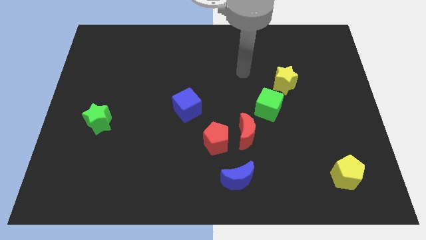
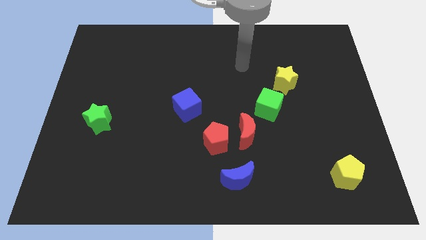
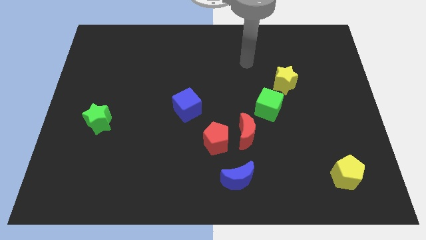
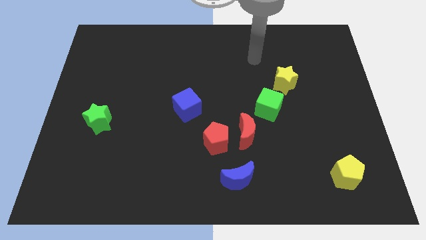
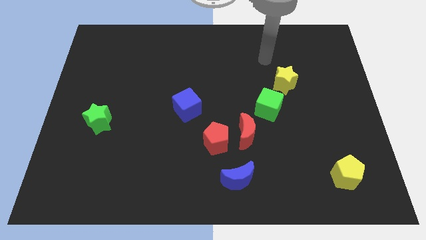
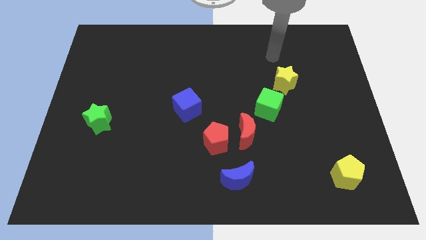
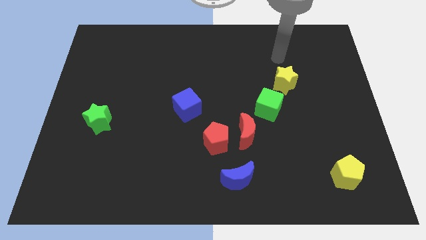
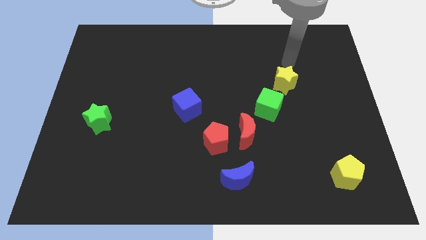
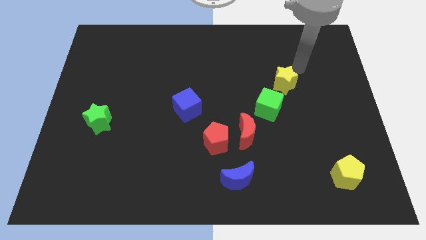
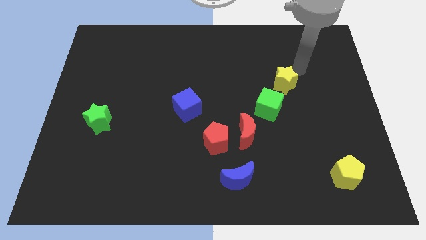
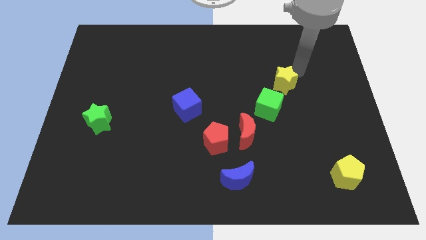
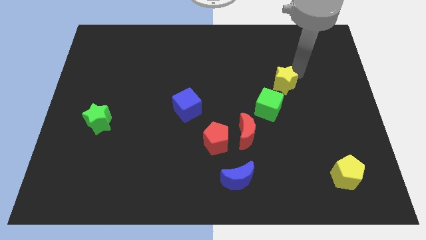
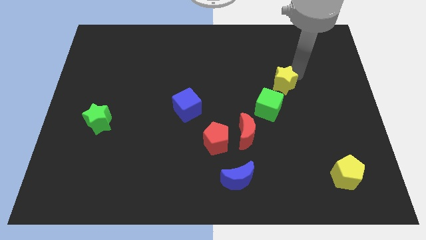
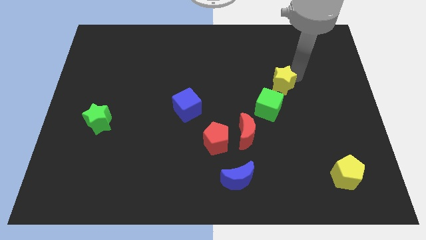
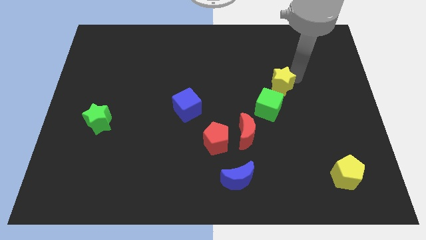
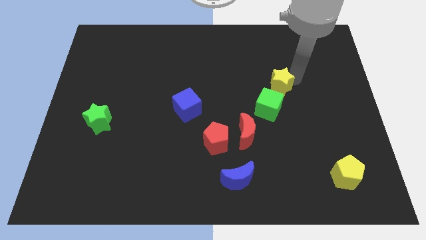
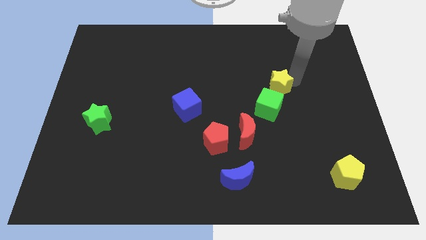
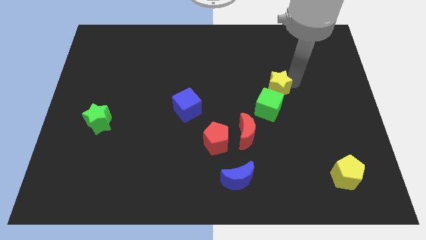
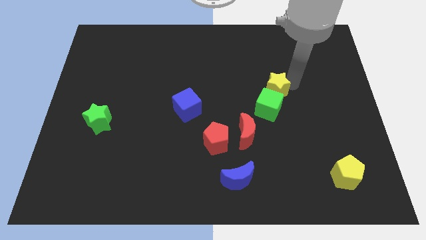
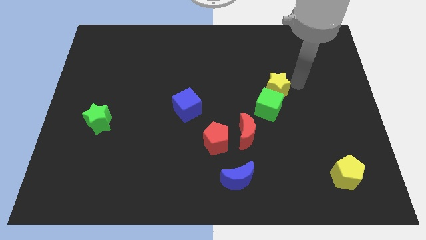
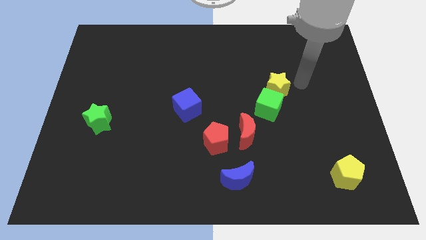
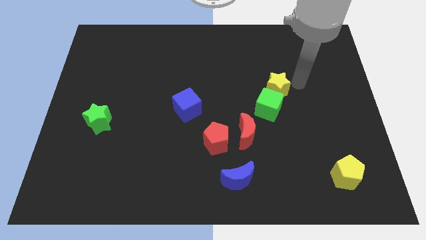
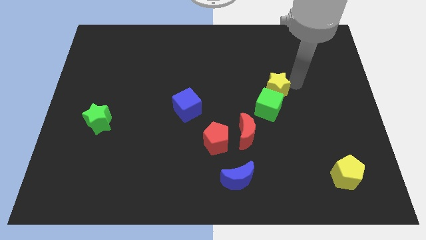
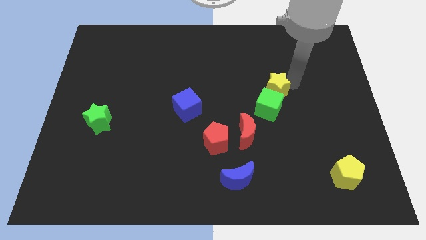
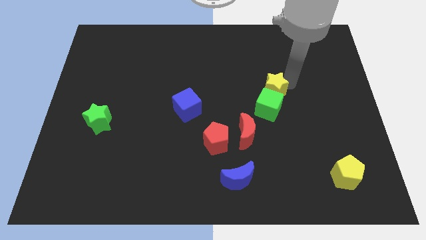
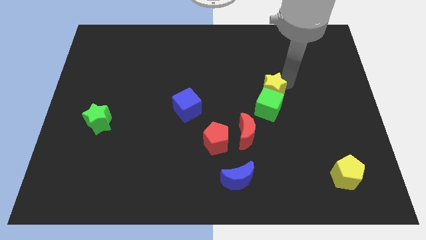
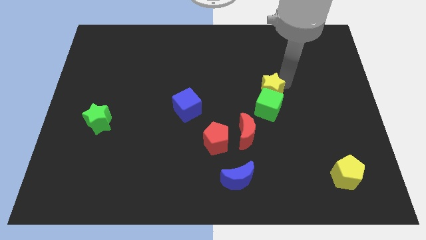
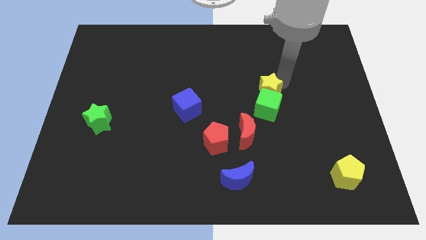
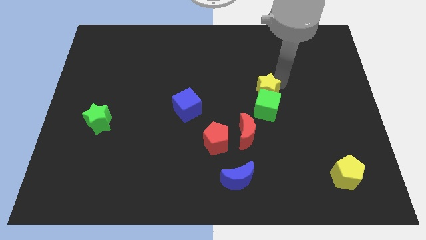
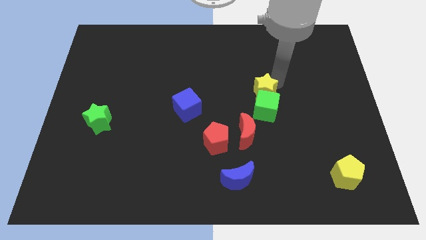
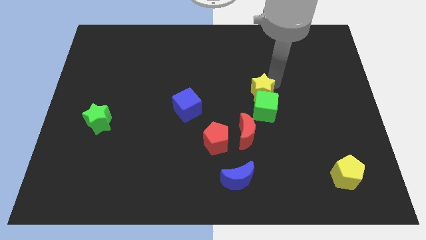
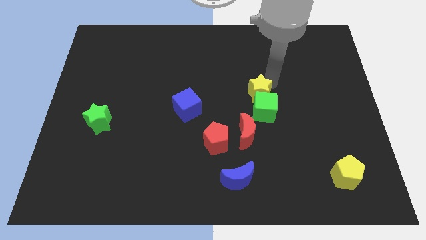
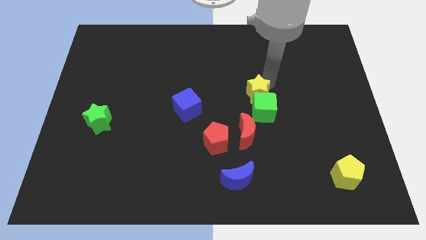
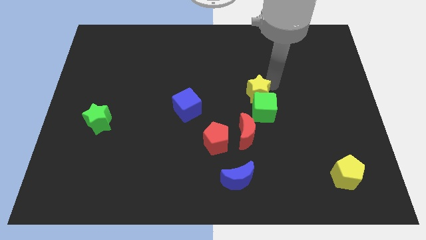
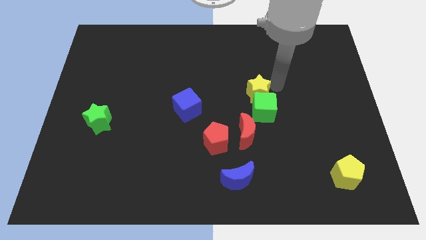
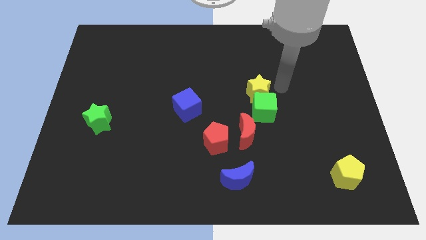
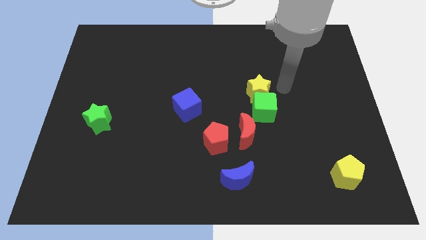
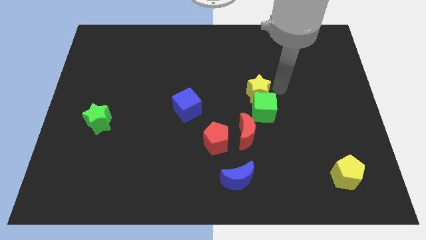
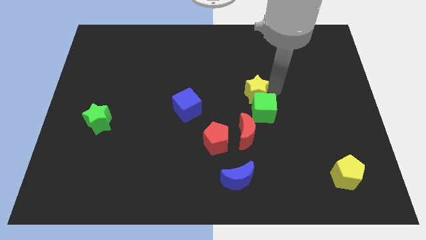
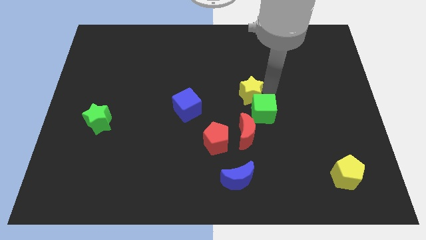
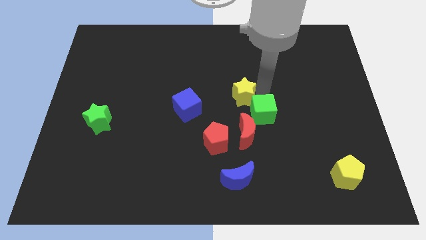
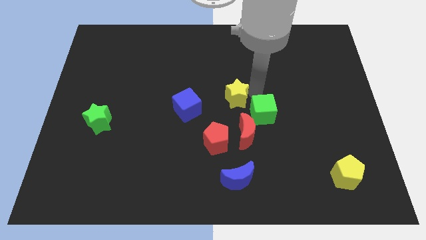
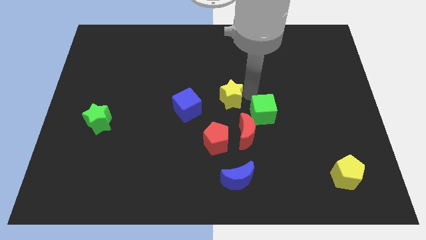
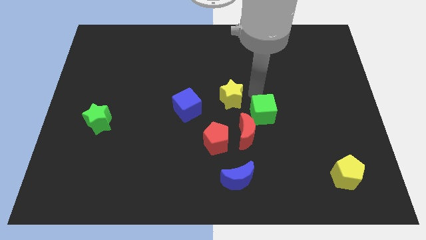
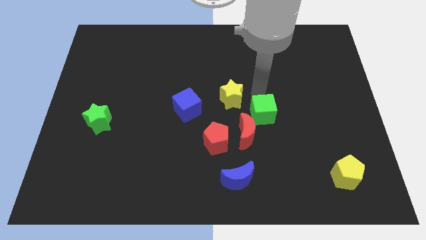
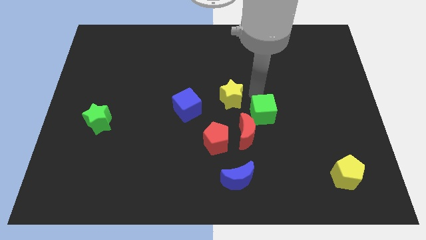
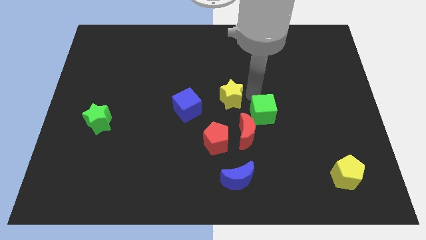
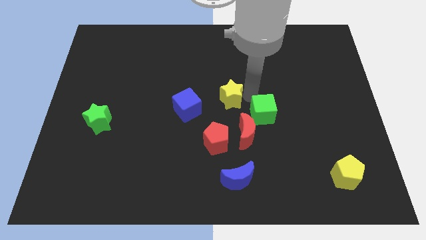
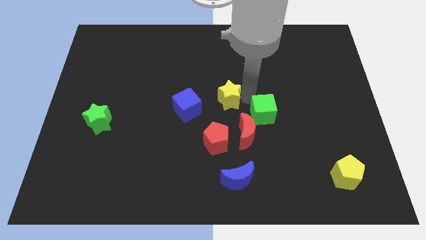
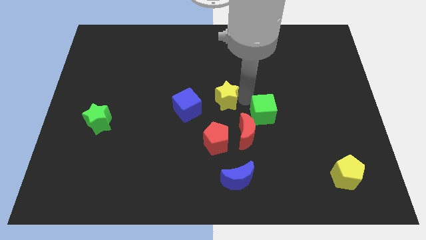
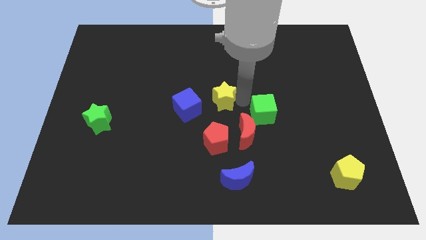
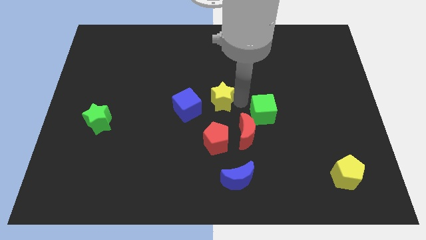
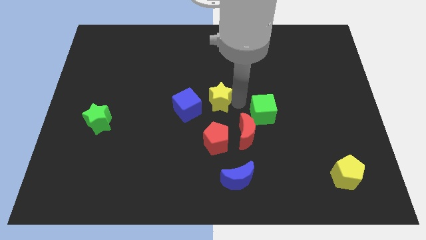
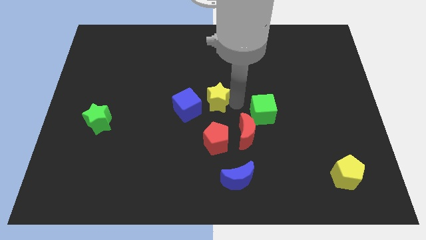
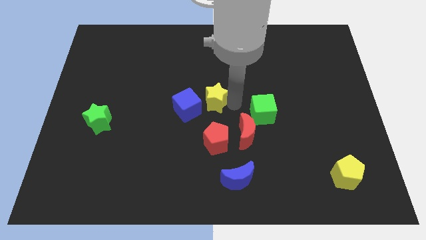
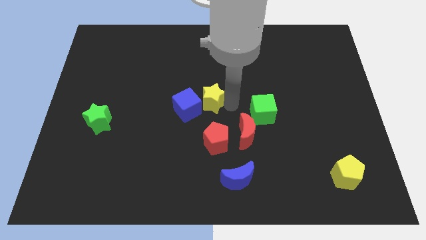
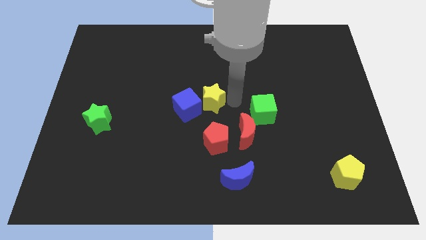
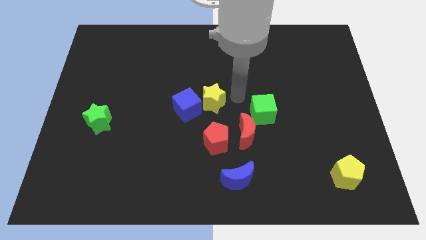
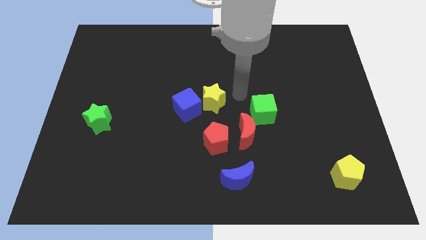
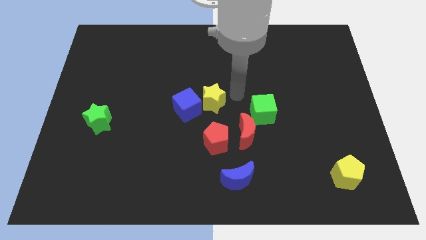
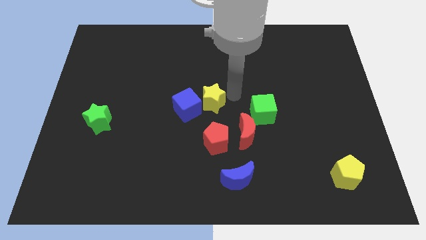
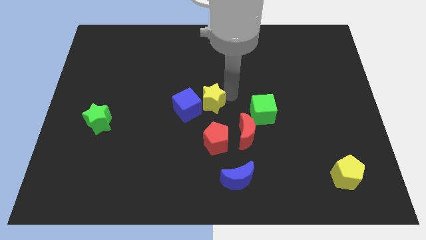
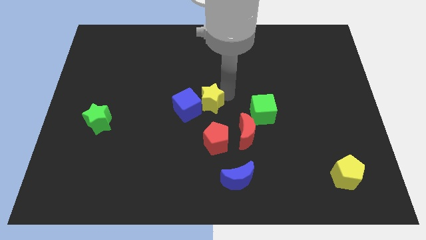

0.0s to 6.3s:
put the yellow star to the blue cube

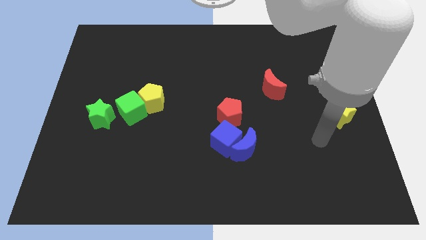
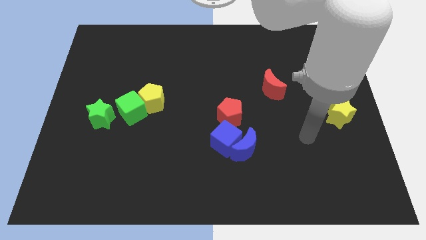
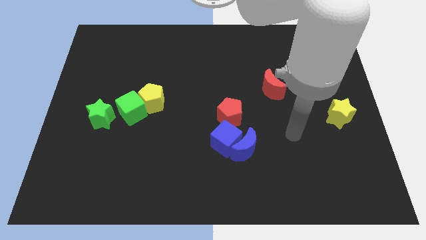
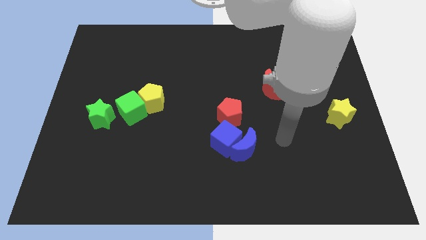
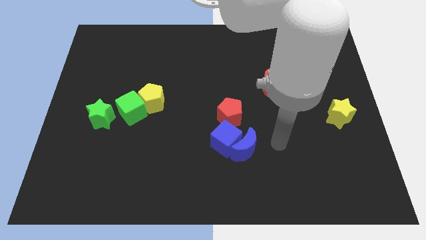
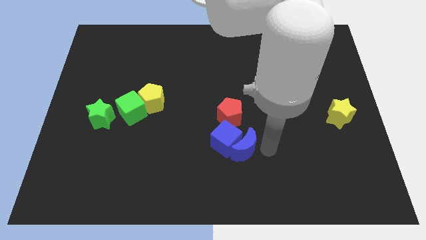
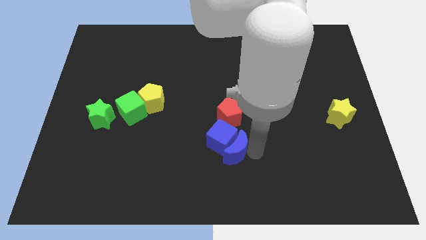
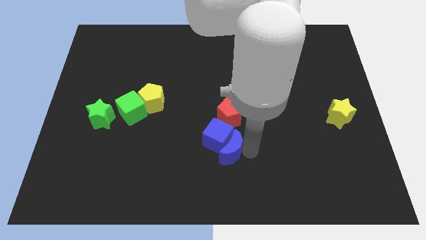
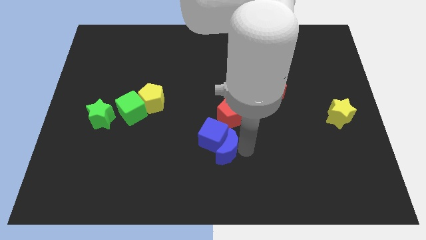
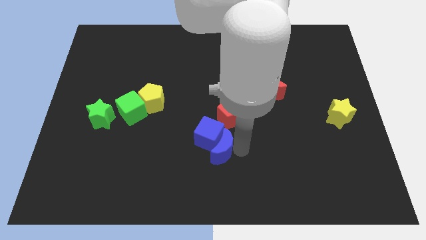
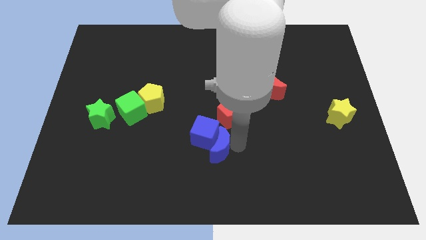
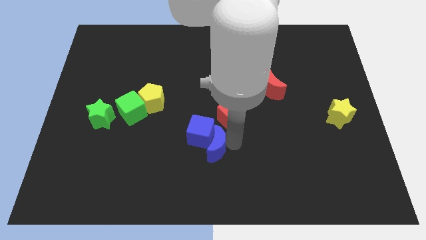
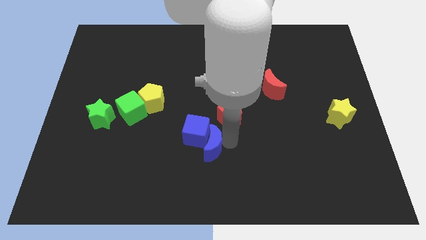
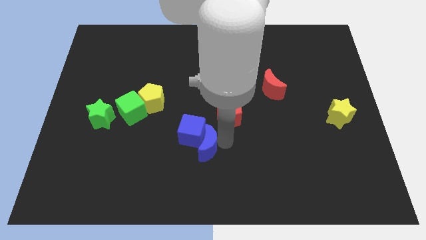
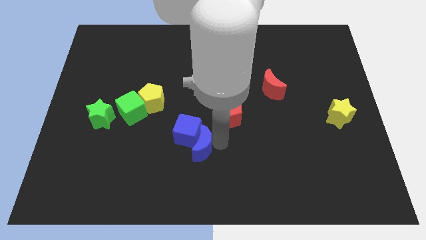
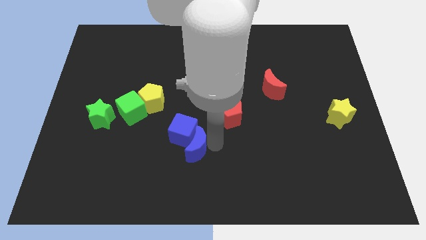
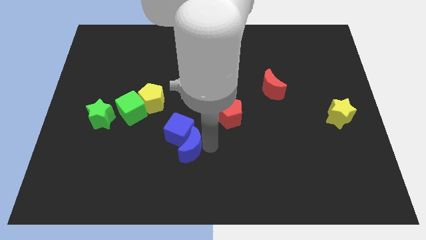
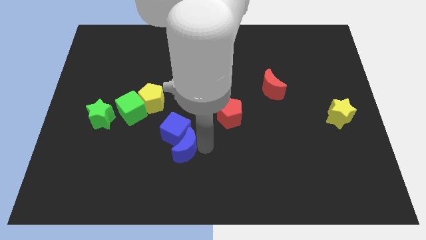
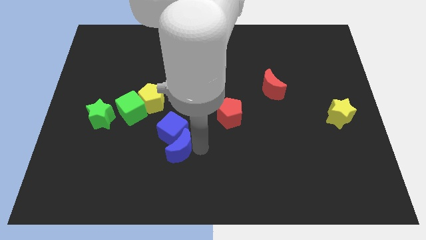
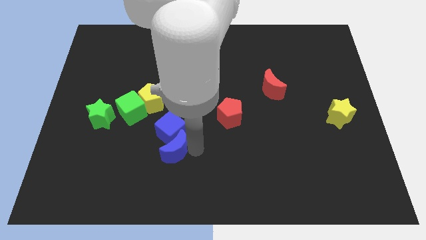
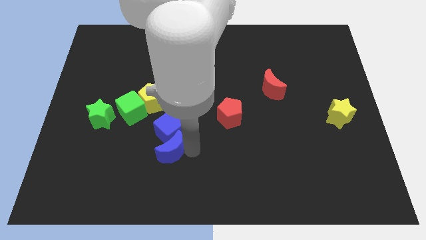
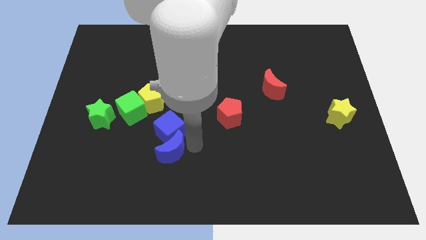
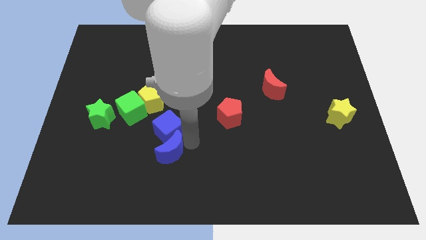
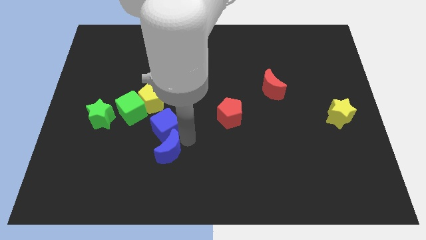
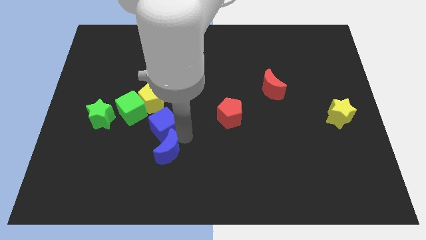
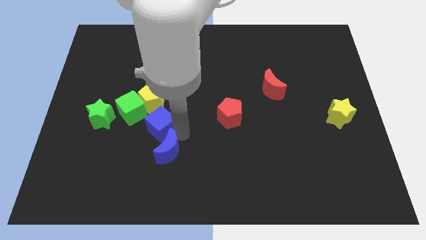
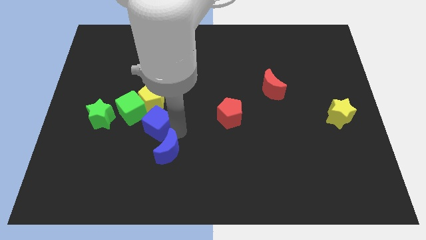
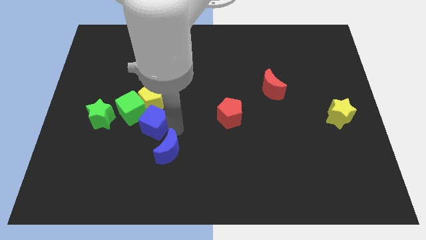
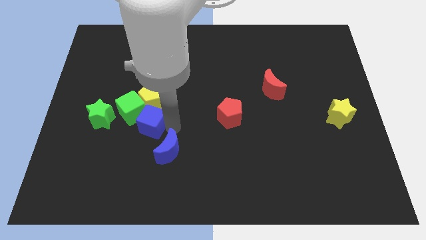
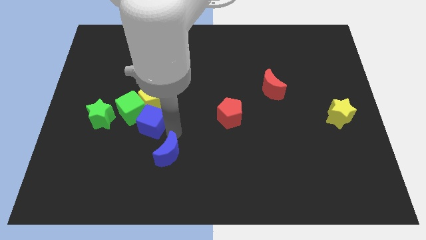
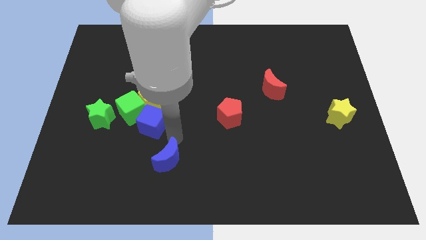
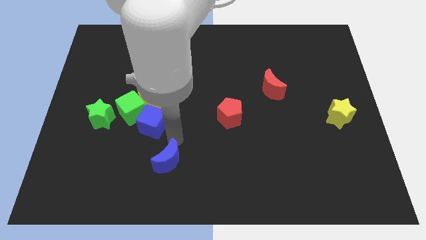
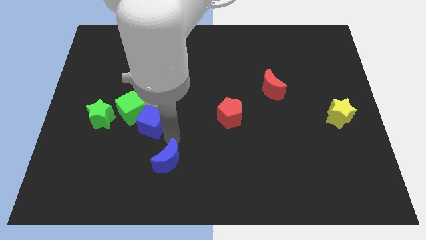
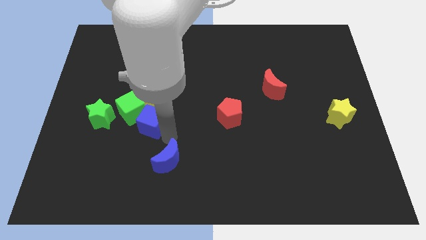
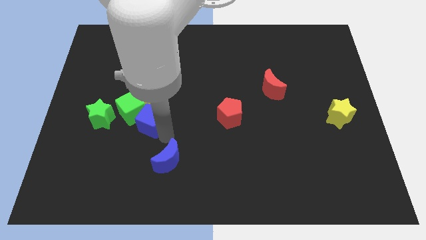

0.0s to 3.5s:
put the blue cube close to the green cube
